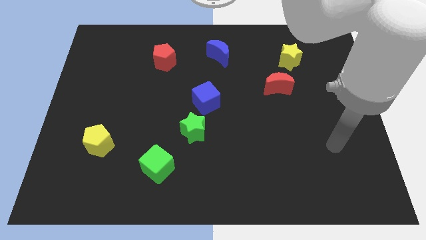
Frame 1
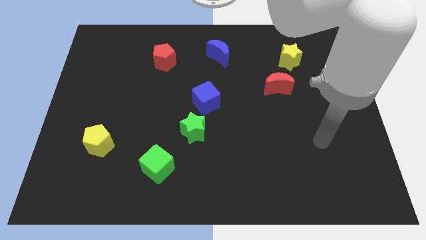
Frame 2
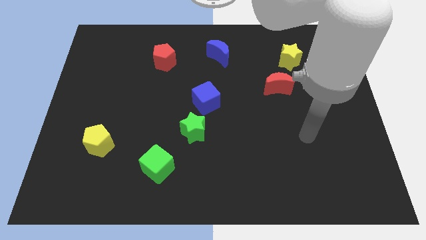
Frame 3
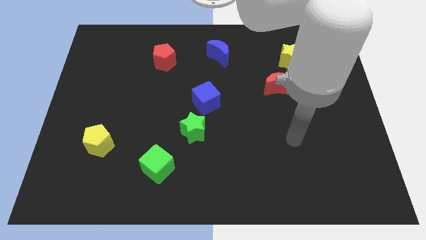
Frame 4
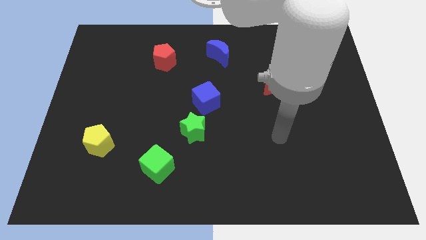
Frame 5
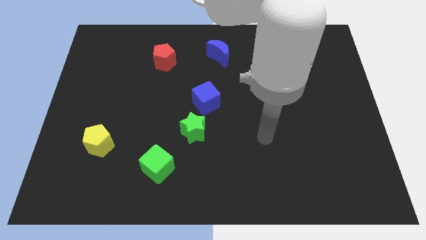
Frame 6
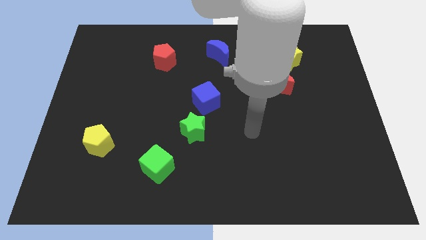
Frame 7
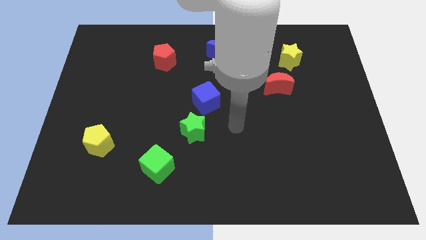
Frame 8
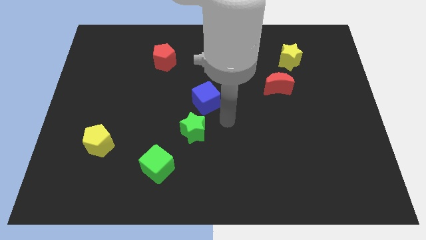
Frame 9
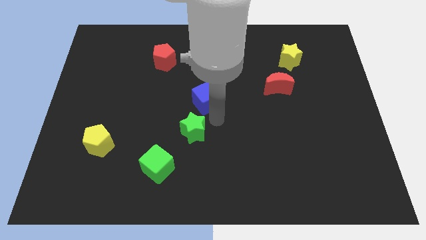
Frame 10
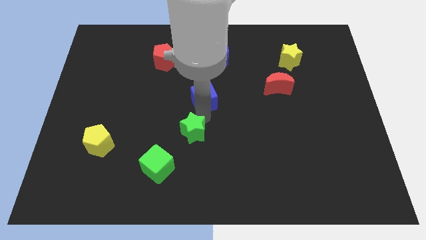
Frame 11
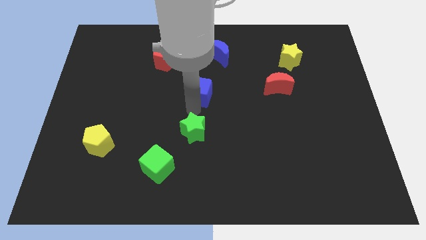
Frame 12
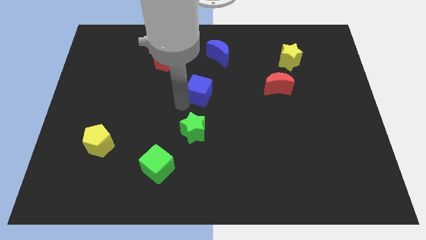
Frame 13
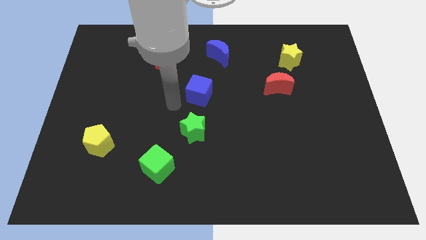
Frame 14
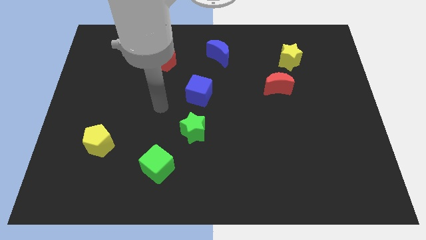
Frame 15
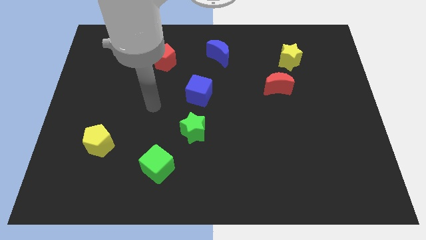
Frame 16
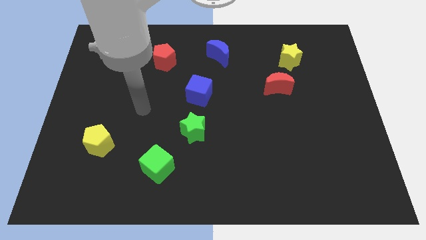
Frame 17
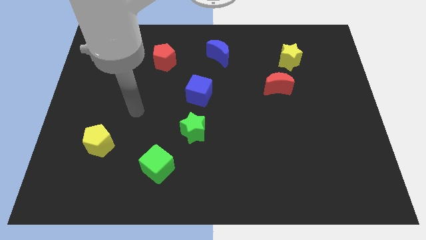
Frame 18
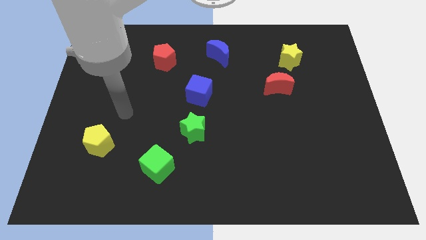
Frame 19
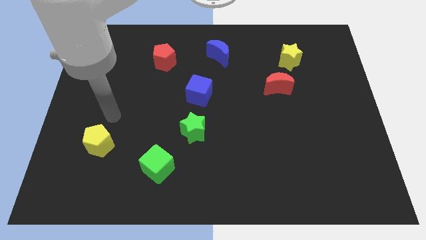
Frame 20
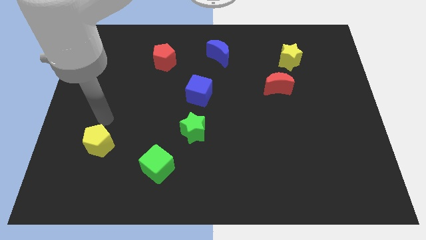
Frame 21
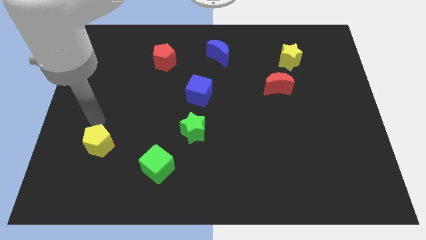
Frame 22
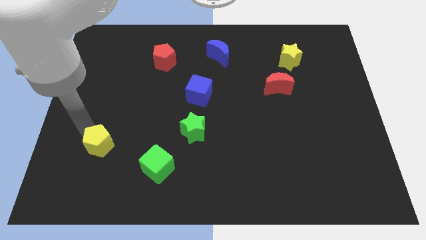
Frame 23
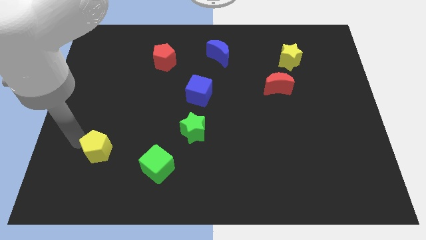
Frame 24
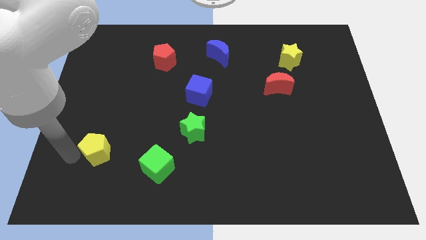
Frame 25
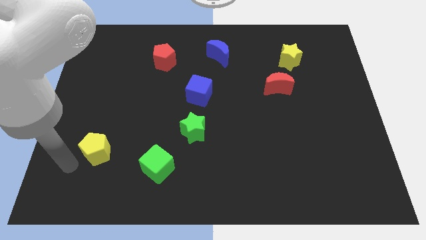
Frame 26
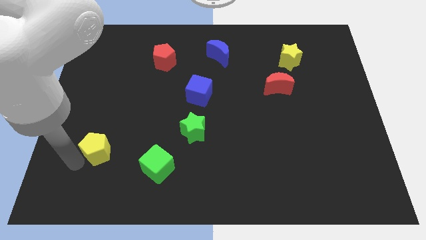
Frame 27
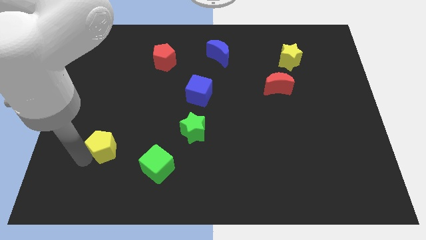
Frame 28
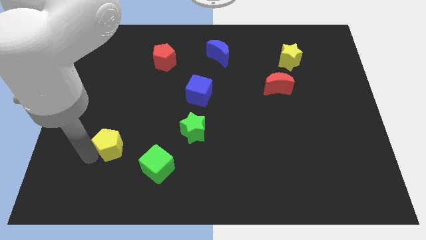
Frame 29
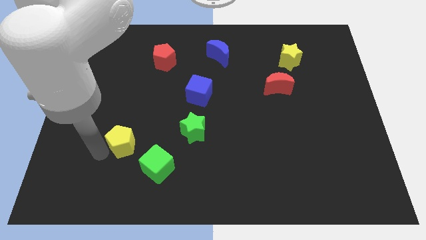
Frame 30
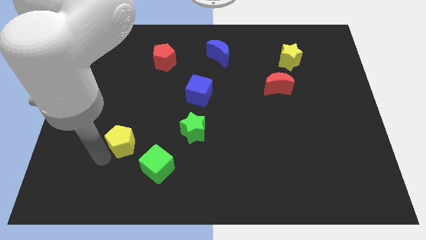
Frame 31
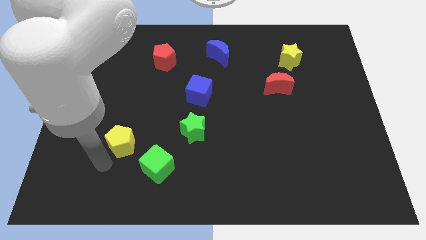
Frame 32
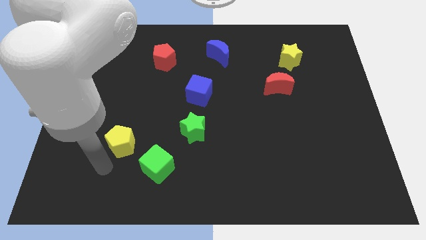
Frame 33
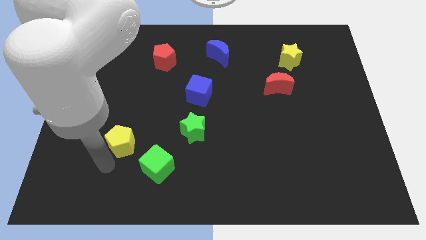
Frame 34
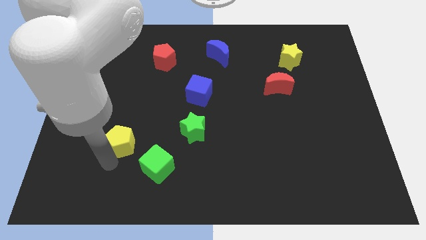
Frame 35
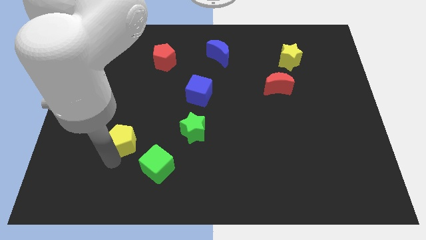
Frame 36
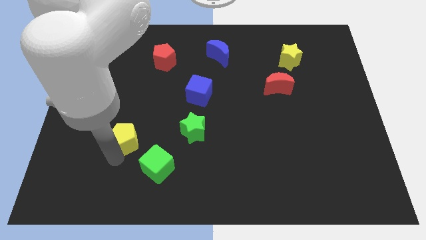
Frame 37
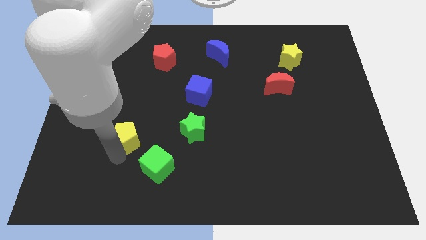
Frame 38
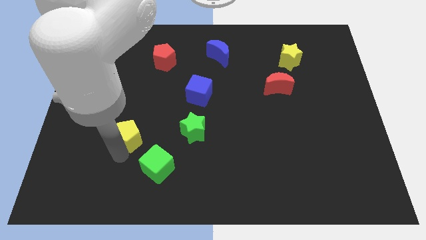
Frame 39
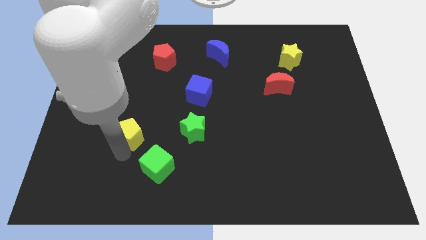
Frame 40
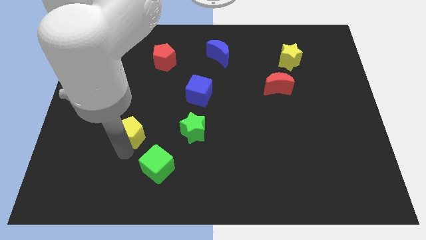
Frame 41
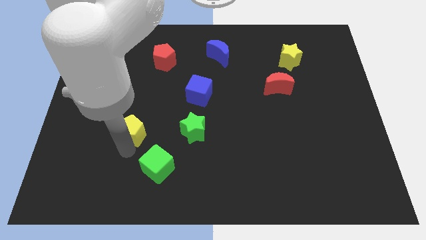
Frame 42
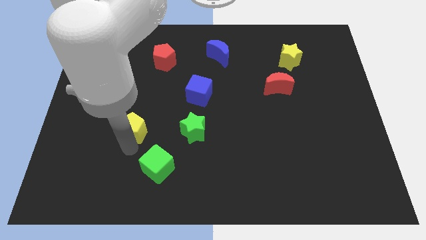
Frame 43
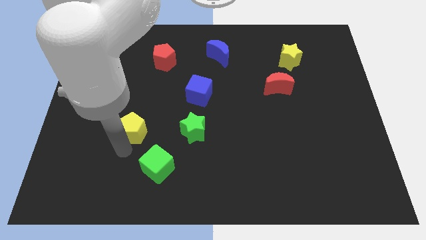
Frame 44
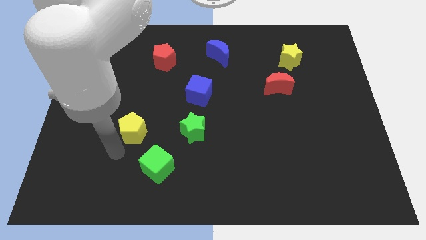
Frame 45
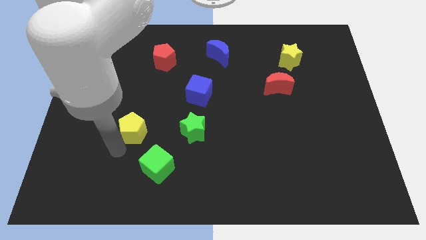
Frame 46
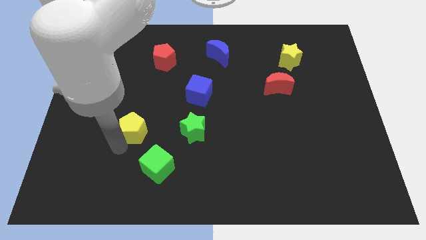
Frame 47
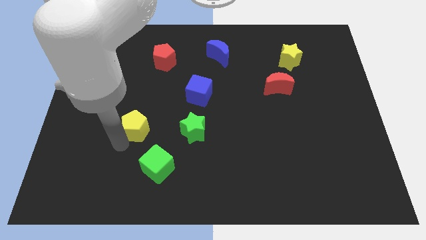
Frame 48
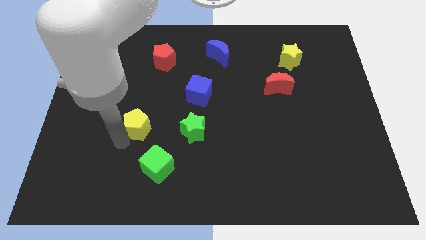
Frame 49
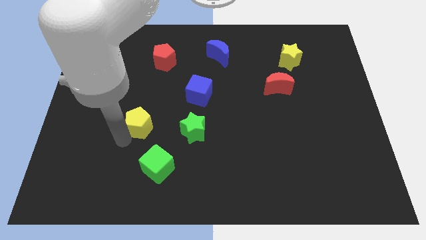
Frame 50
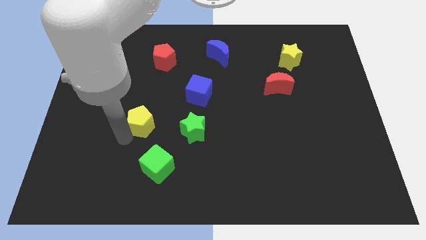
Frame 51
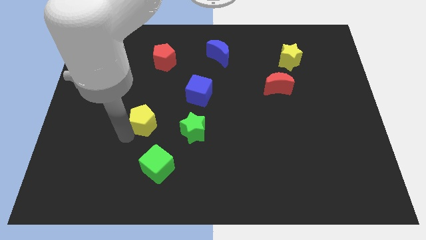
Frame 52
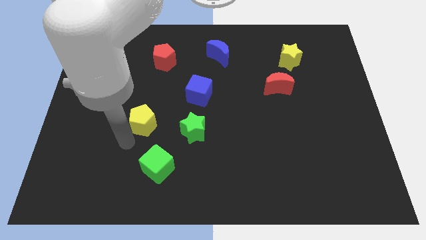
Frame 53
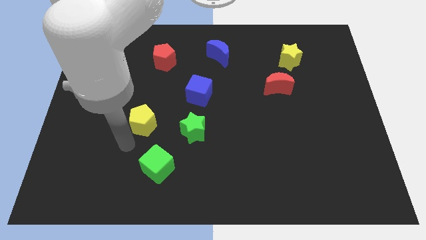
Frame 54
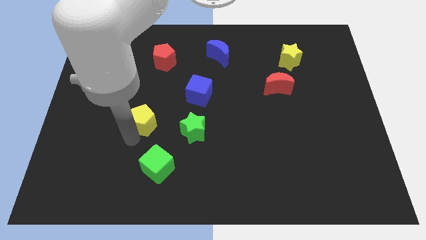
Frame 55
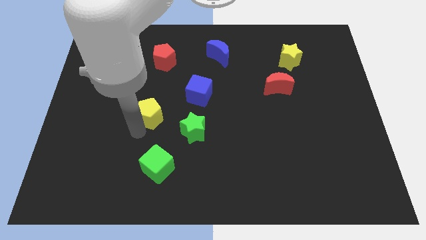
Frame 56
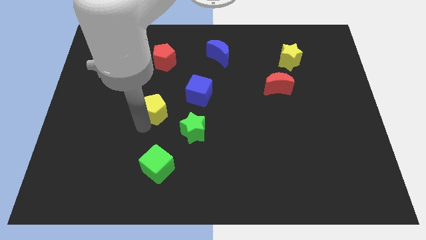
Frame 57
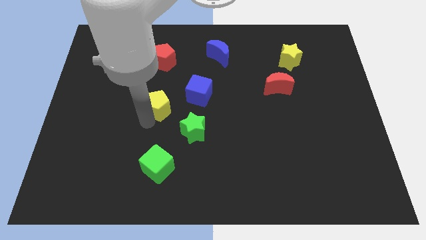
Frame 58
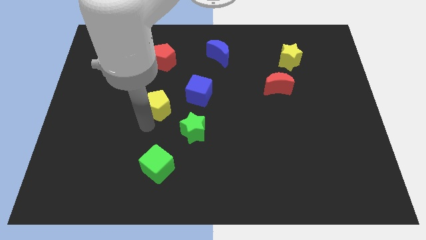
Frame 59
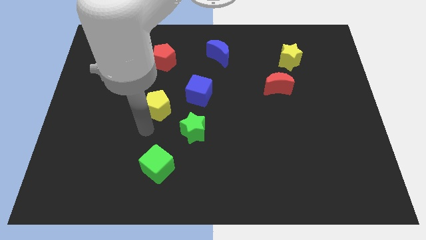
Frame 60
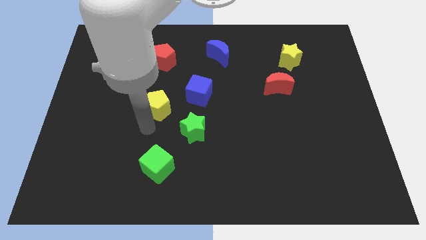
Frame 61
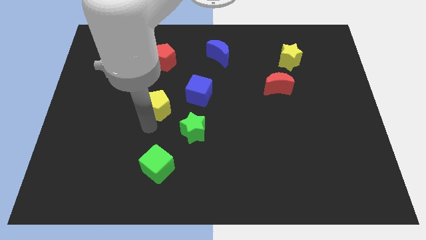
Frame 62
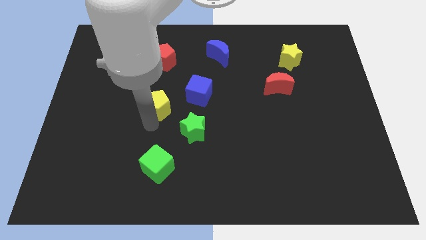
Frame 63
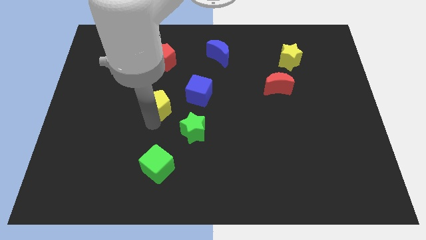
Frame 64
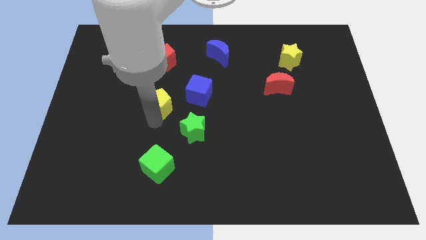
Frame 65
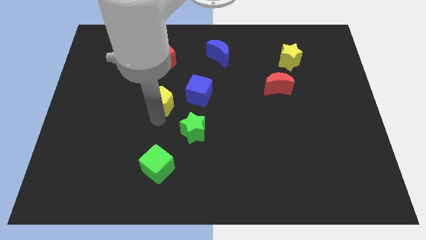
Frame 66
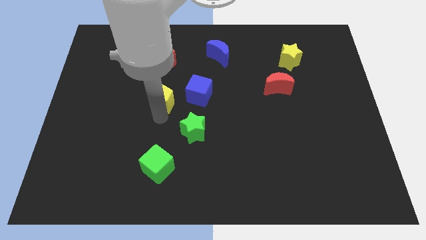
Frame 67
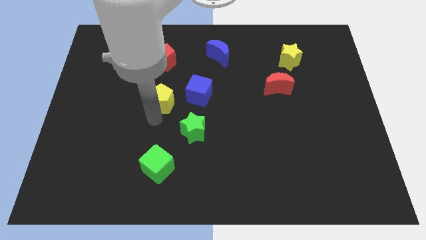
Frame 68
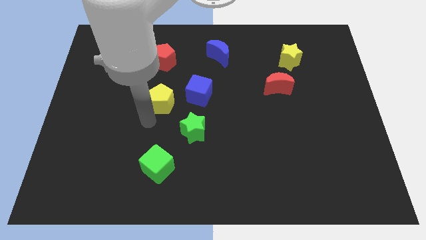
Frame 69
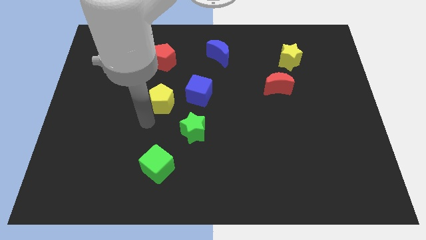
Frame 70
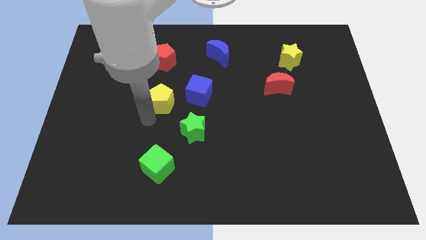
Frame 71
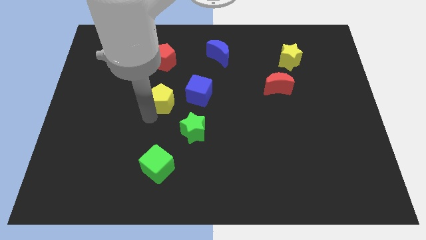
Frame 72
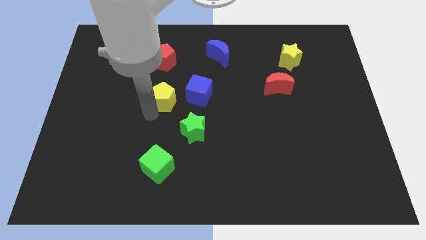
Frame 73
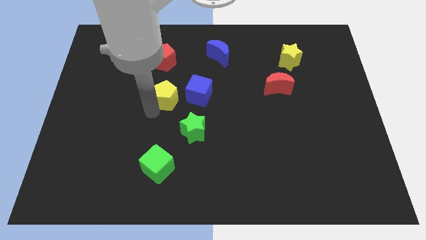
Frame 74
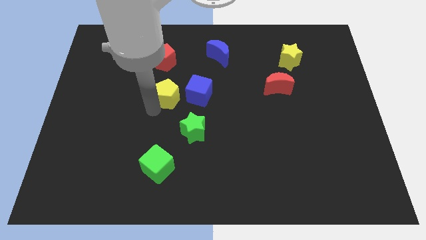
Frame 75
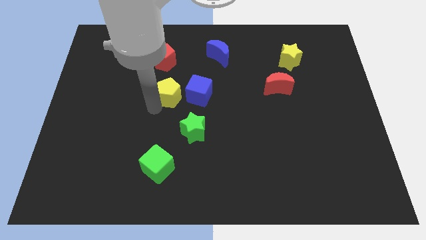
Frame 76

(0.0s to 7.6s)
slide the yellow pentagon up and right diagonally

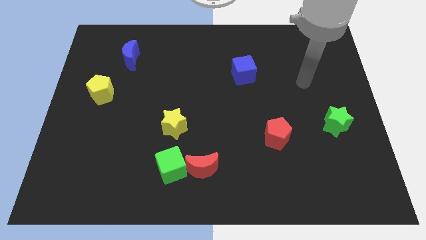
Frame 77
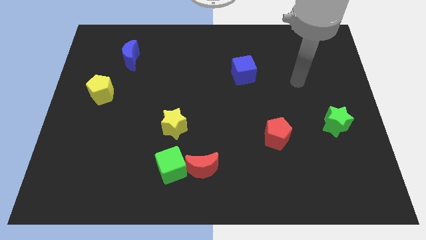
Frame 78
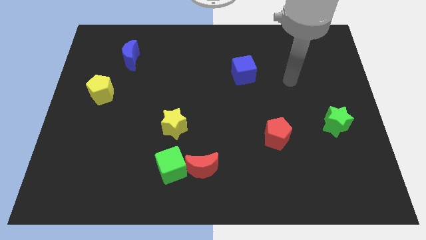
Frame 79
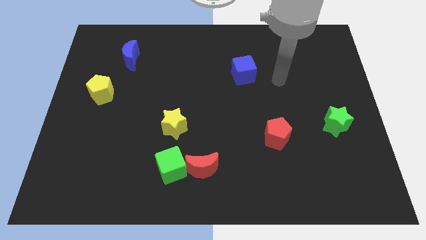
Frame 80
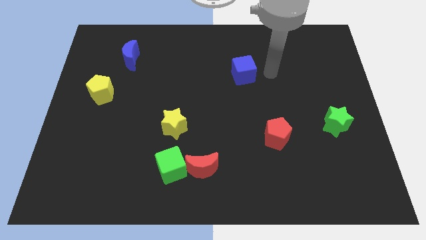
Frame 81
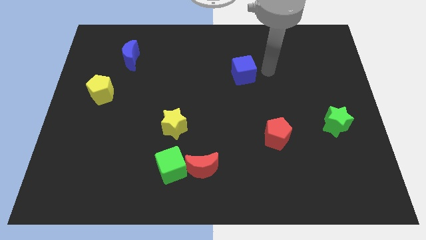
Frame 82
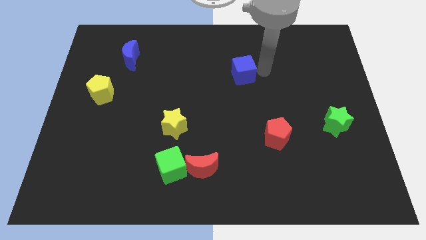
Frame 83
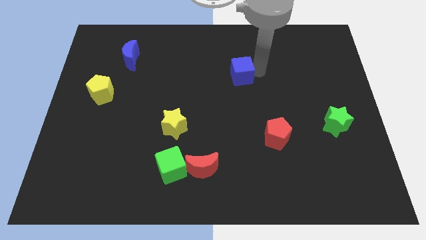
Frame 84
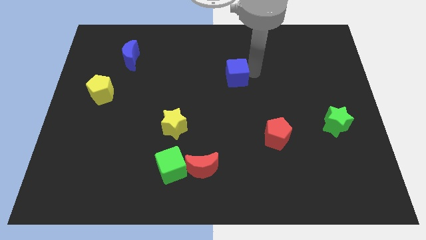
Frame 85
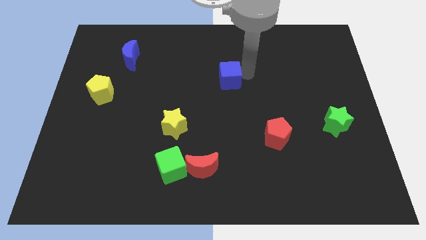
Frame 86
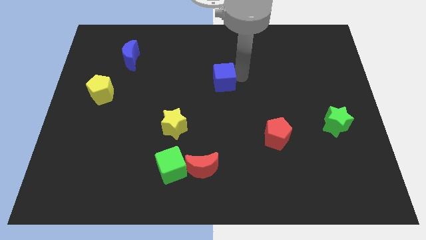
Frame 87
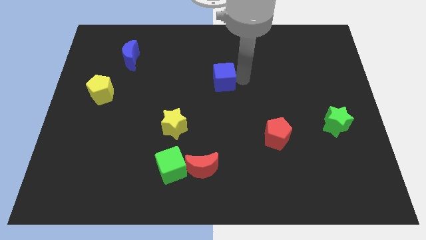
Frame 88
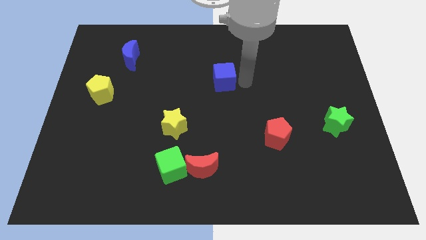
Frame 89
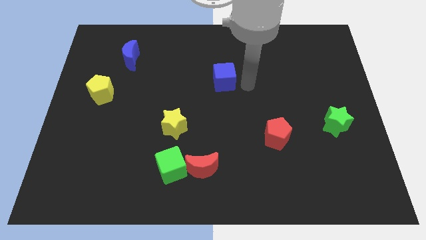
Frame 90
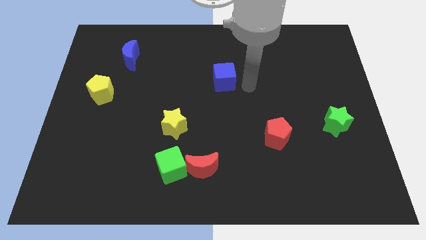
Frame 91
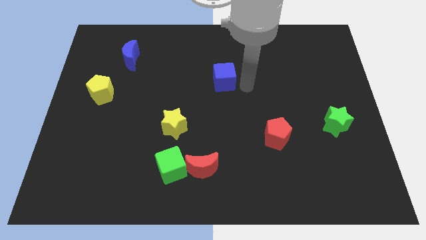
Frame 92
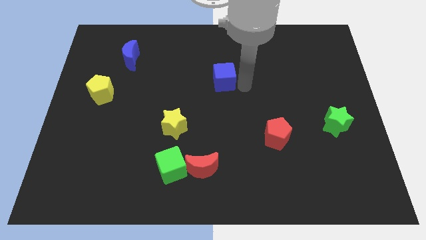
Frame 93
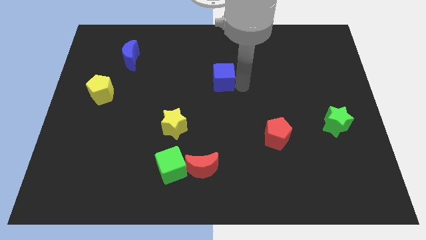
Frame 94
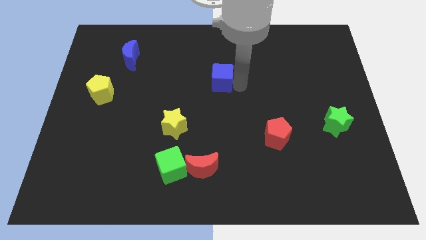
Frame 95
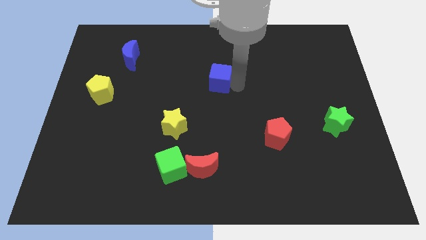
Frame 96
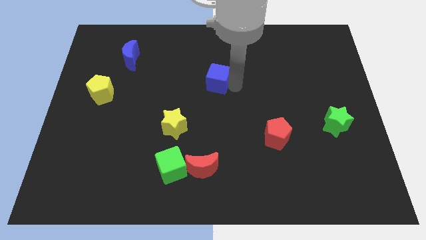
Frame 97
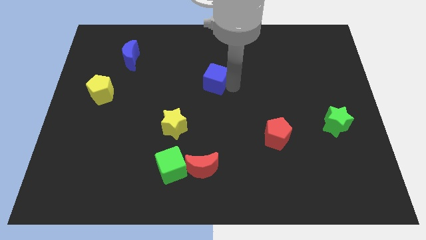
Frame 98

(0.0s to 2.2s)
push the blue cube slightly to the left
